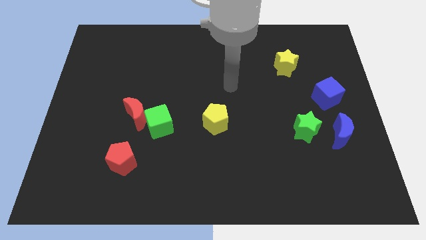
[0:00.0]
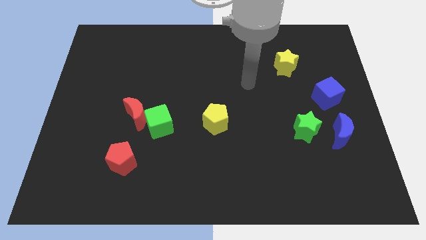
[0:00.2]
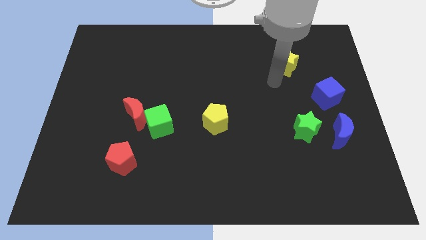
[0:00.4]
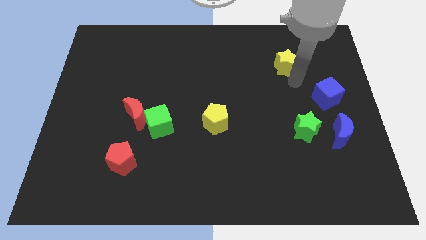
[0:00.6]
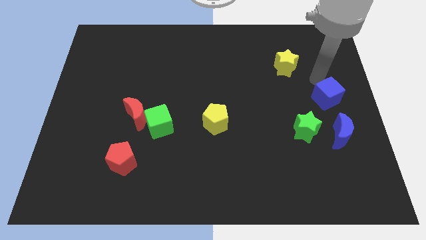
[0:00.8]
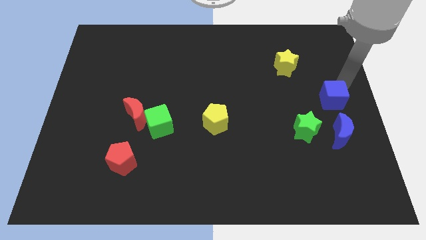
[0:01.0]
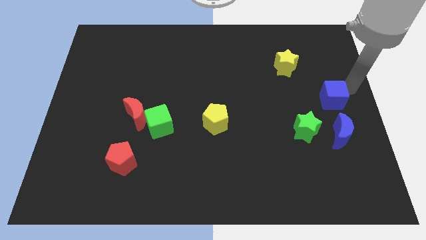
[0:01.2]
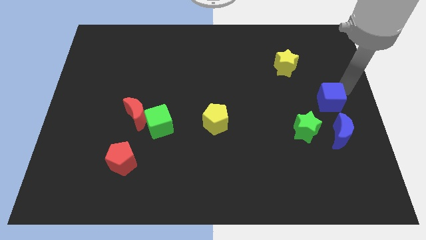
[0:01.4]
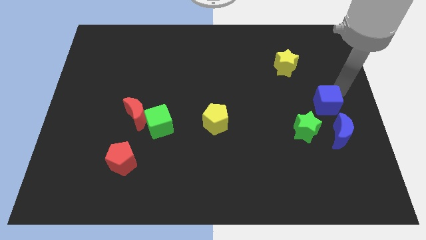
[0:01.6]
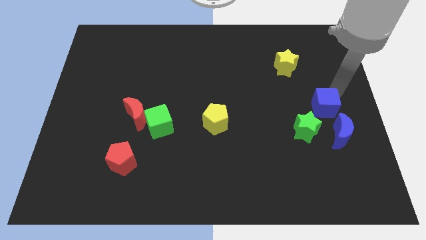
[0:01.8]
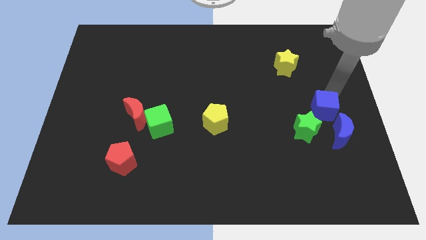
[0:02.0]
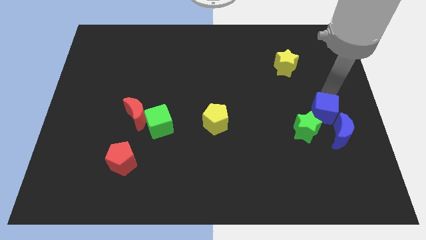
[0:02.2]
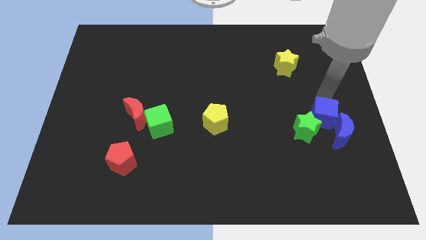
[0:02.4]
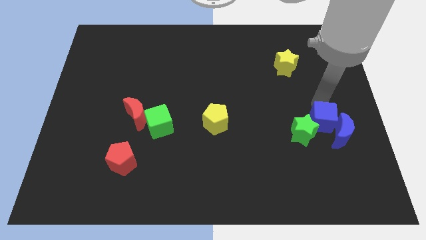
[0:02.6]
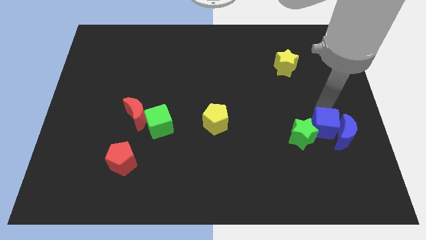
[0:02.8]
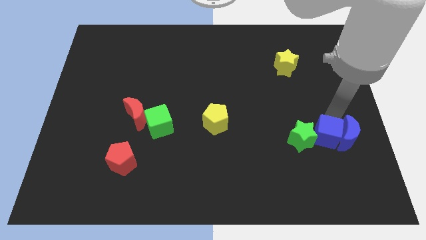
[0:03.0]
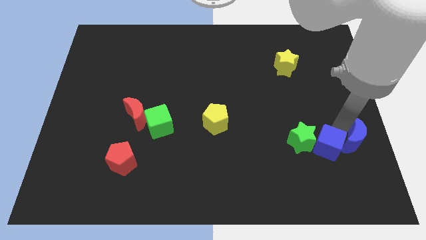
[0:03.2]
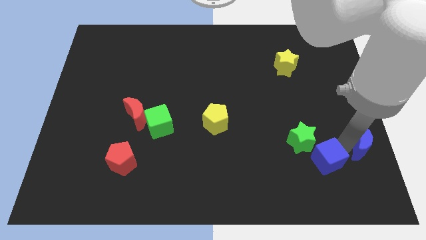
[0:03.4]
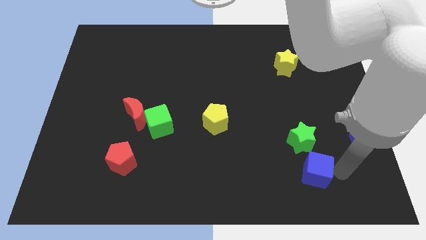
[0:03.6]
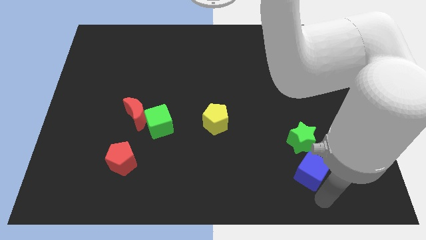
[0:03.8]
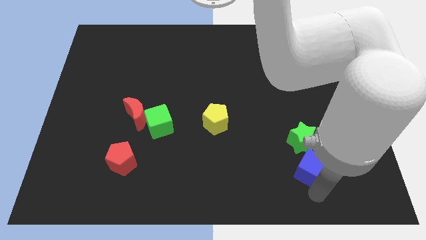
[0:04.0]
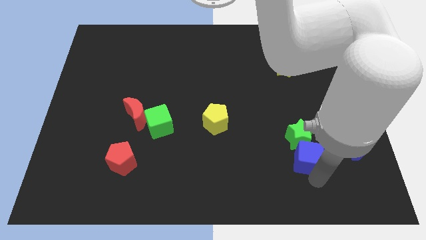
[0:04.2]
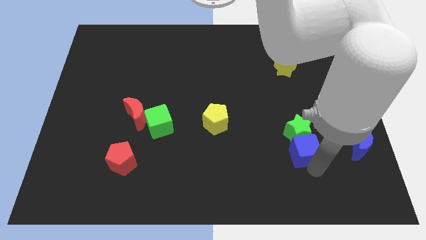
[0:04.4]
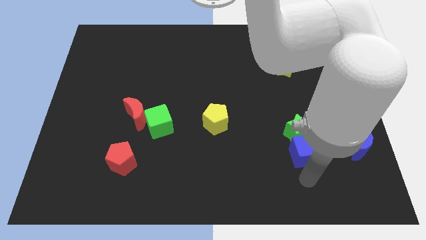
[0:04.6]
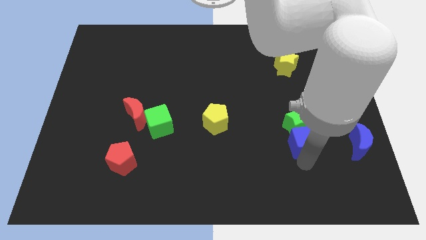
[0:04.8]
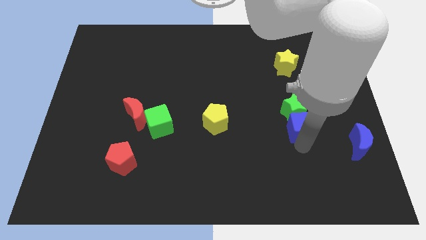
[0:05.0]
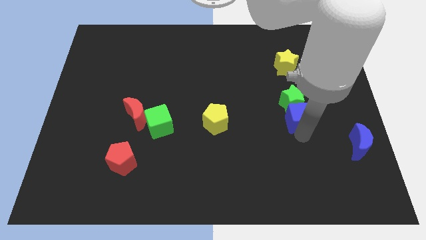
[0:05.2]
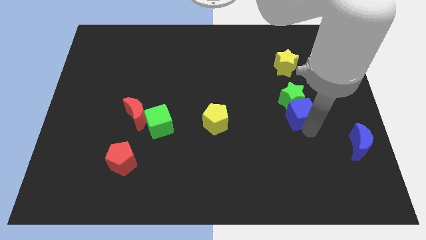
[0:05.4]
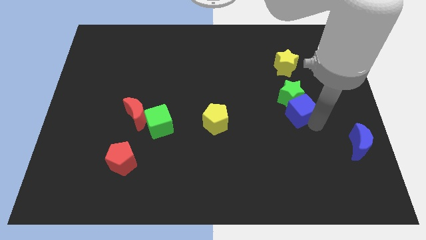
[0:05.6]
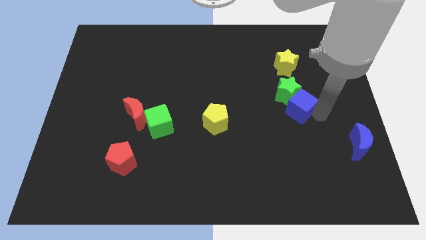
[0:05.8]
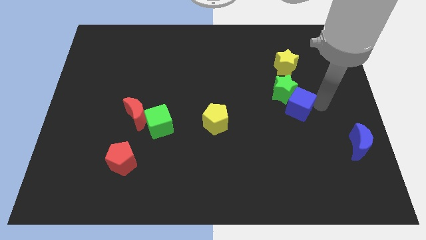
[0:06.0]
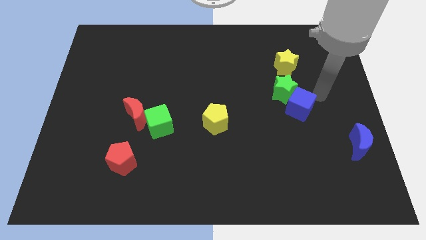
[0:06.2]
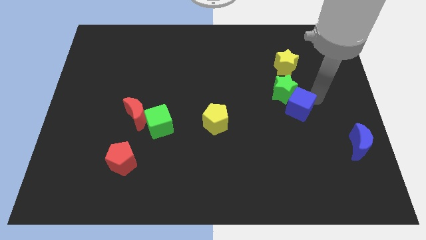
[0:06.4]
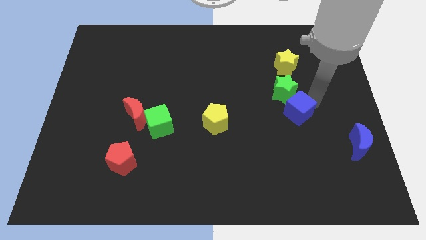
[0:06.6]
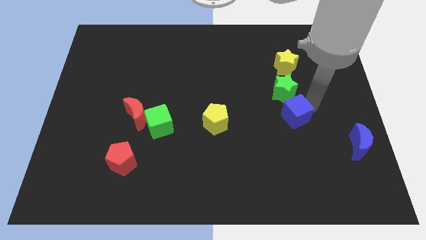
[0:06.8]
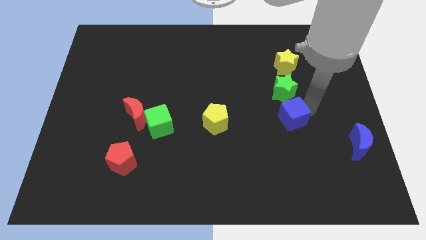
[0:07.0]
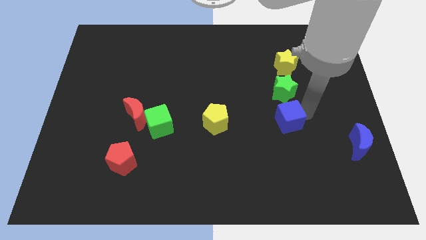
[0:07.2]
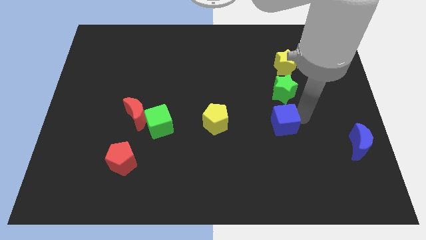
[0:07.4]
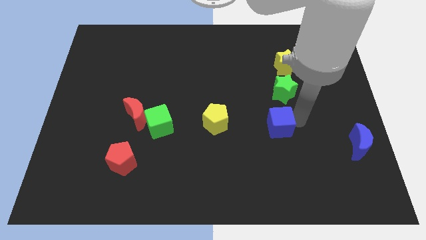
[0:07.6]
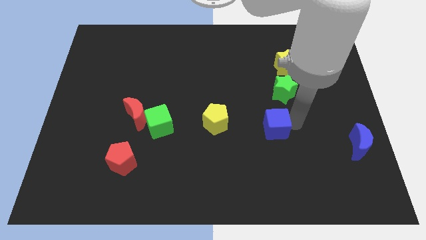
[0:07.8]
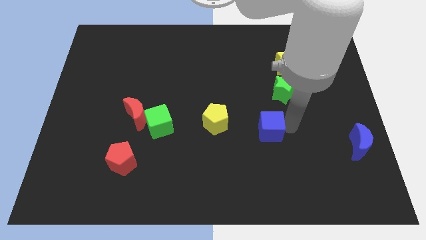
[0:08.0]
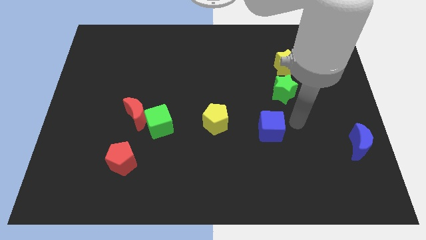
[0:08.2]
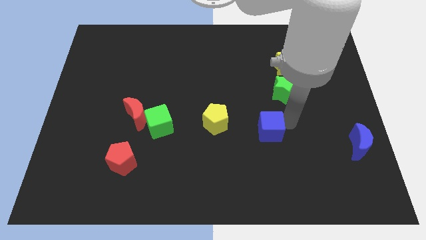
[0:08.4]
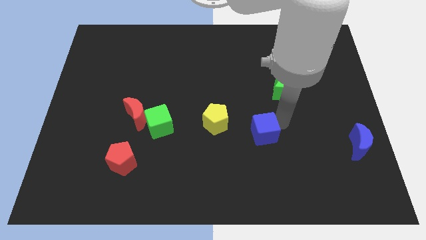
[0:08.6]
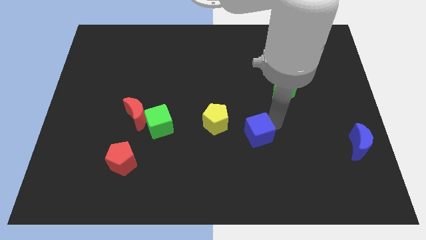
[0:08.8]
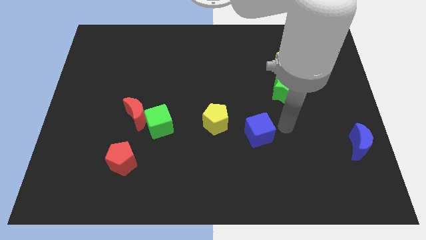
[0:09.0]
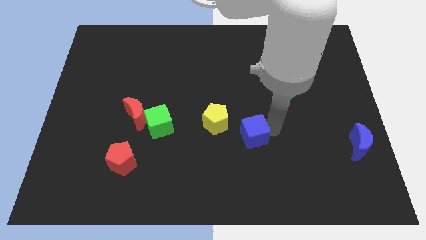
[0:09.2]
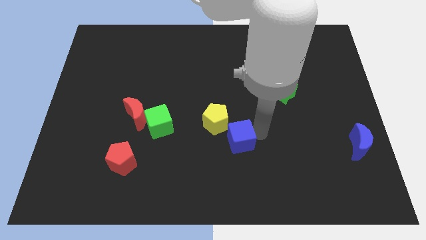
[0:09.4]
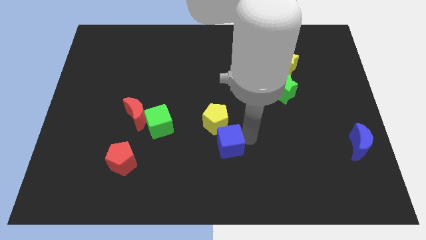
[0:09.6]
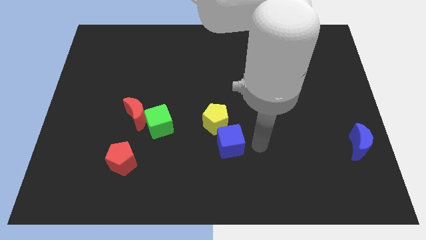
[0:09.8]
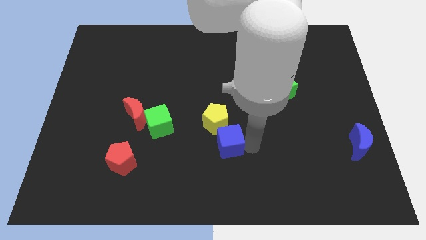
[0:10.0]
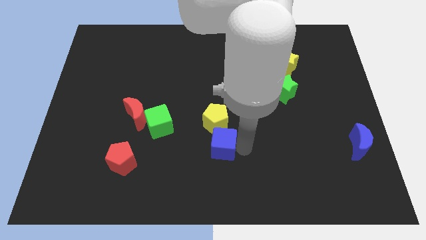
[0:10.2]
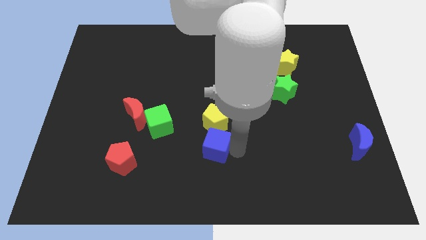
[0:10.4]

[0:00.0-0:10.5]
slide the blue cube to the bottom left of the yellow pentagon
